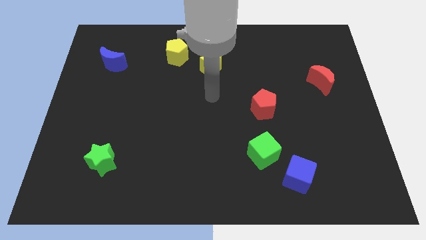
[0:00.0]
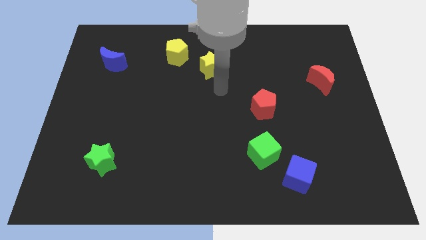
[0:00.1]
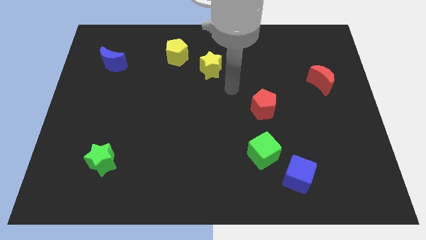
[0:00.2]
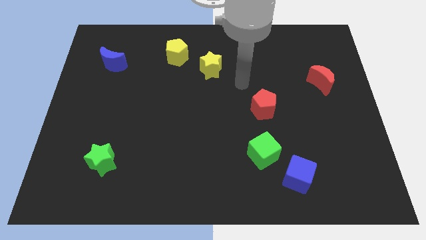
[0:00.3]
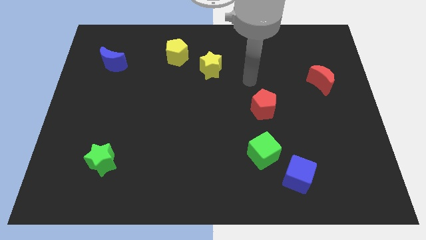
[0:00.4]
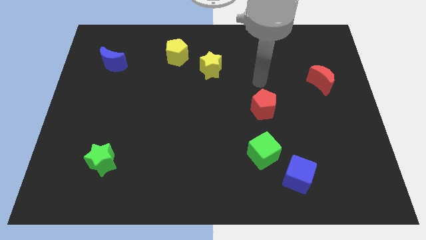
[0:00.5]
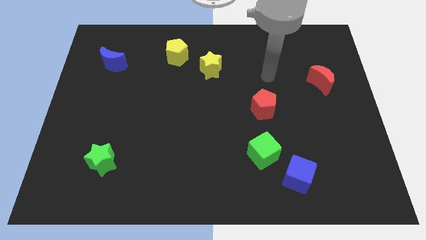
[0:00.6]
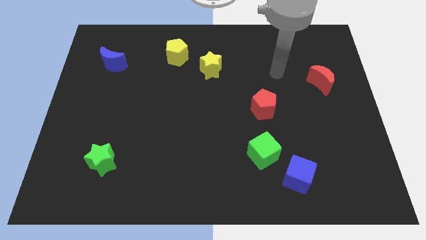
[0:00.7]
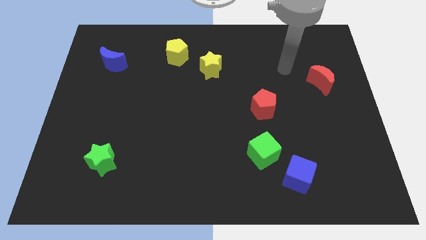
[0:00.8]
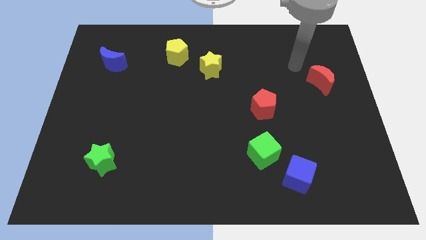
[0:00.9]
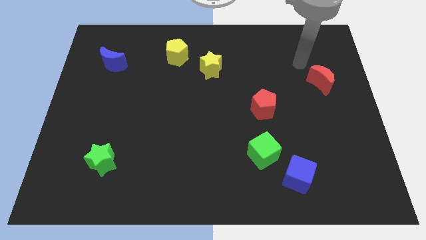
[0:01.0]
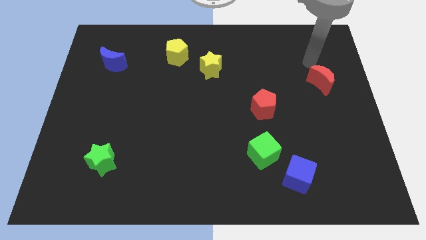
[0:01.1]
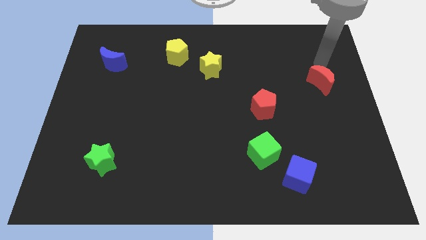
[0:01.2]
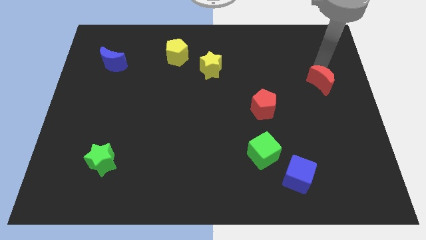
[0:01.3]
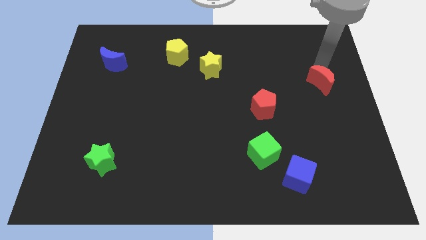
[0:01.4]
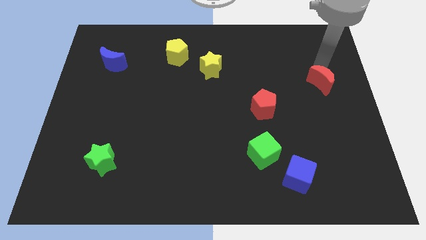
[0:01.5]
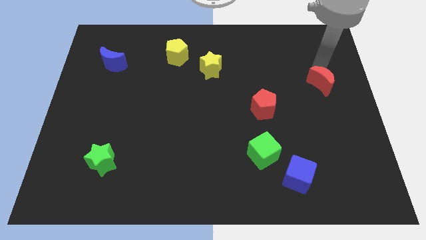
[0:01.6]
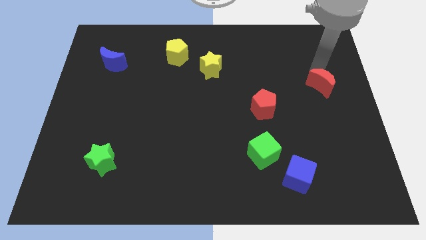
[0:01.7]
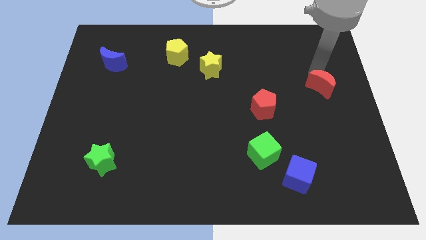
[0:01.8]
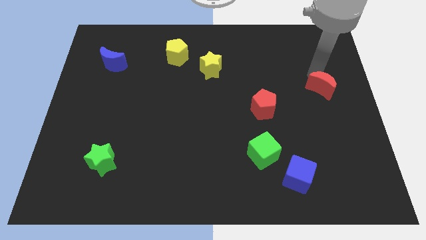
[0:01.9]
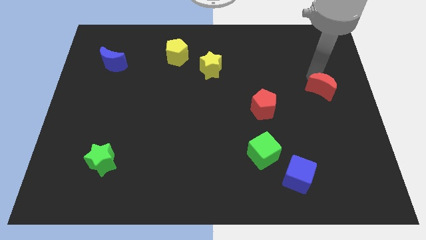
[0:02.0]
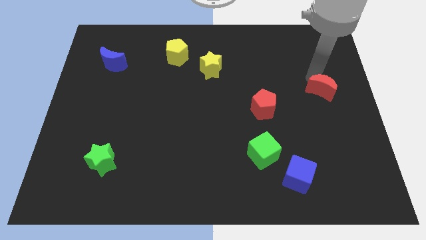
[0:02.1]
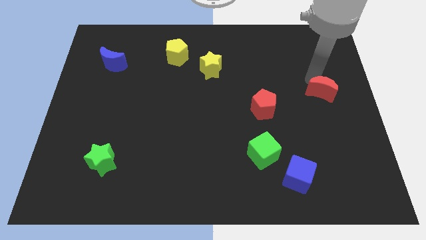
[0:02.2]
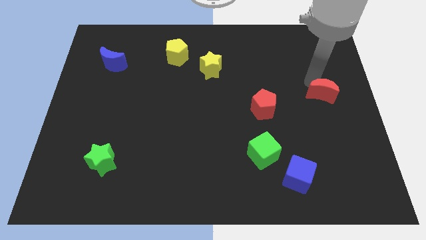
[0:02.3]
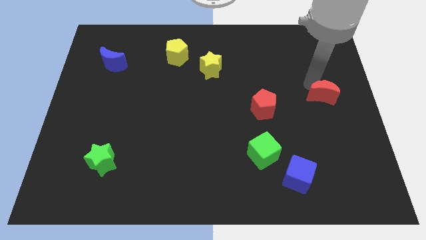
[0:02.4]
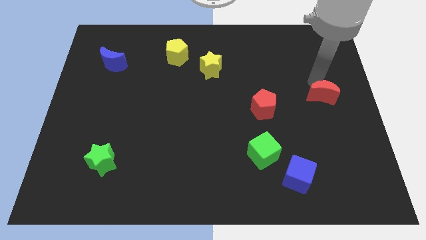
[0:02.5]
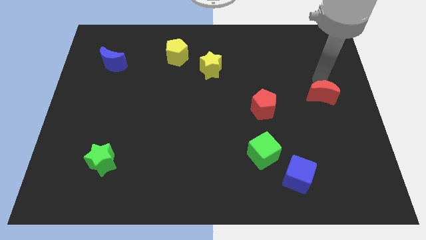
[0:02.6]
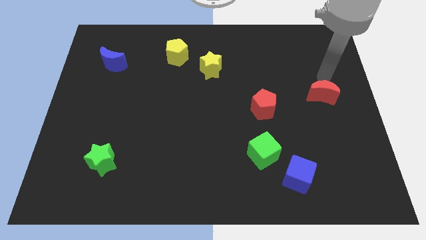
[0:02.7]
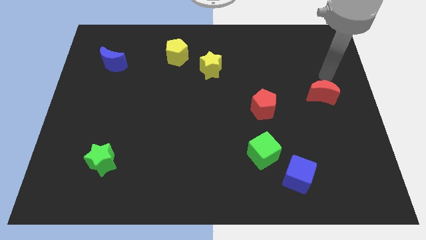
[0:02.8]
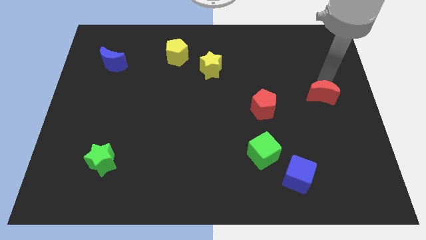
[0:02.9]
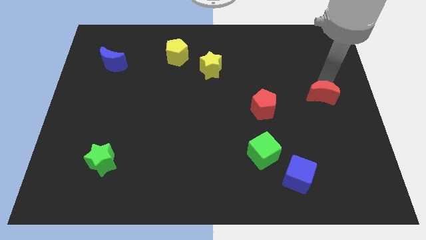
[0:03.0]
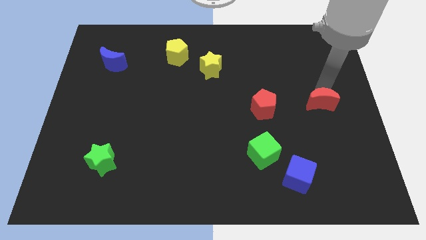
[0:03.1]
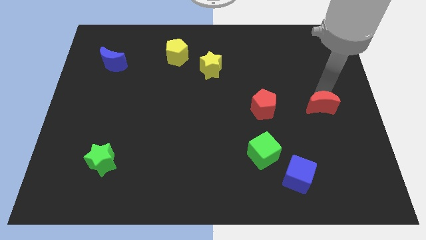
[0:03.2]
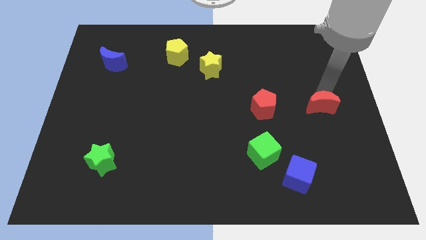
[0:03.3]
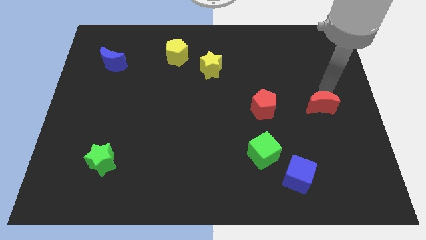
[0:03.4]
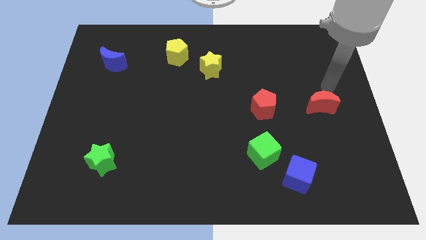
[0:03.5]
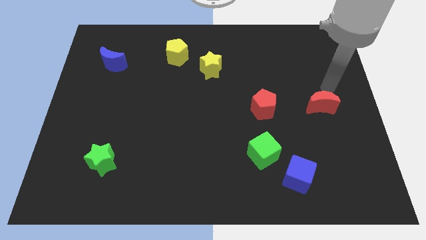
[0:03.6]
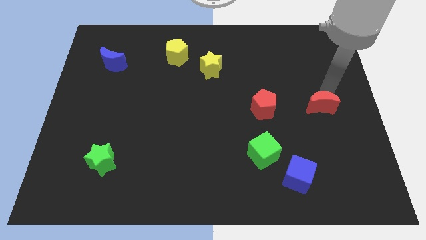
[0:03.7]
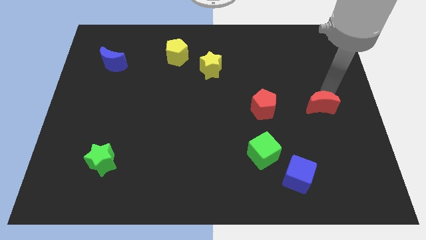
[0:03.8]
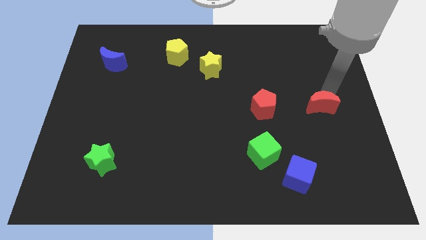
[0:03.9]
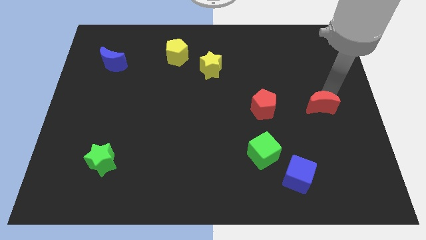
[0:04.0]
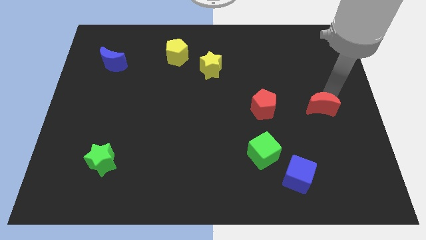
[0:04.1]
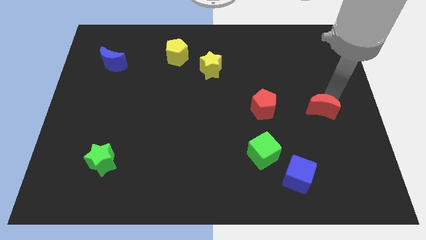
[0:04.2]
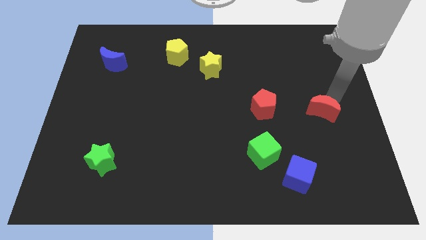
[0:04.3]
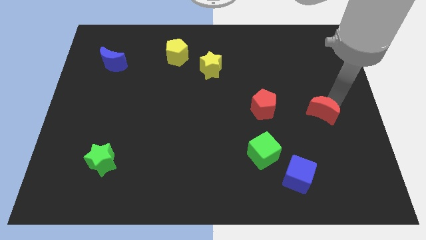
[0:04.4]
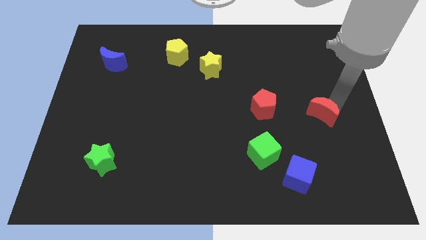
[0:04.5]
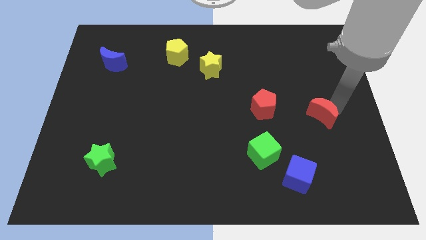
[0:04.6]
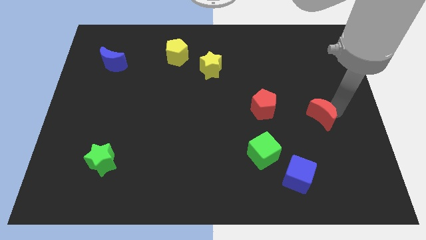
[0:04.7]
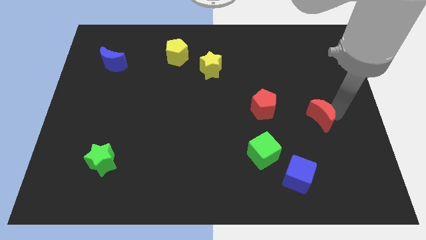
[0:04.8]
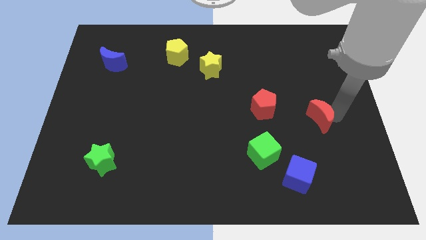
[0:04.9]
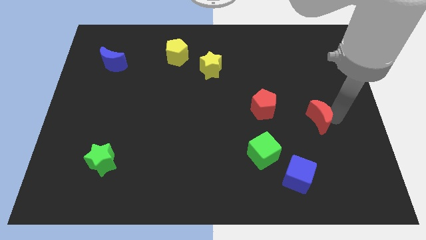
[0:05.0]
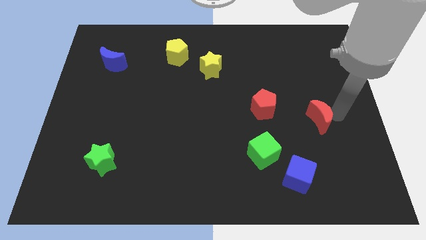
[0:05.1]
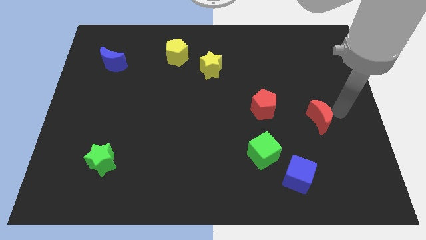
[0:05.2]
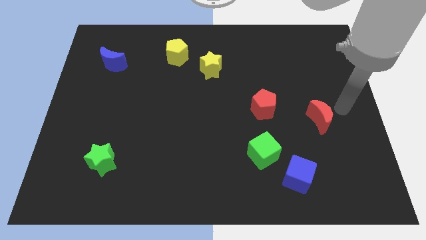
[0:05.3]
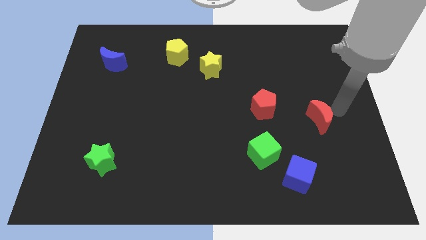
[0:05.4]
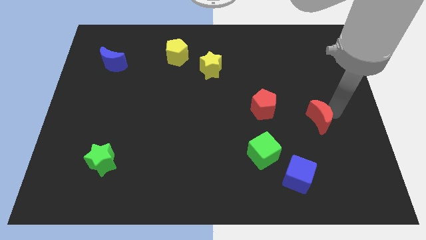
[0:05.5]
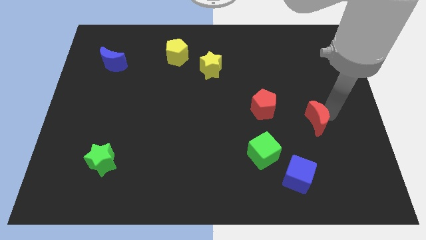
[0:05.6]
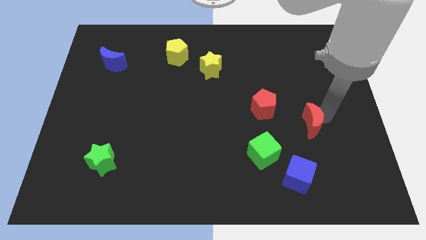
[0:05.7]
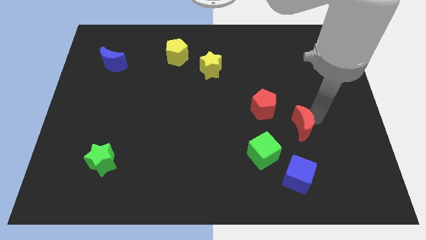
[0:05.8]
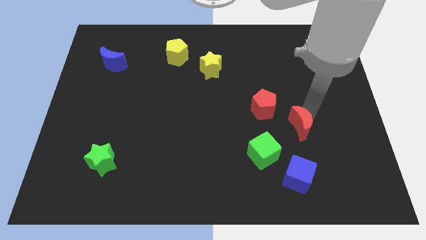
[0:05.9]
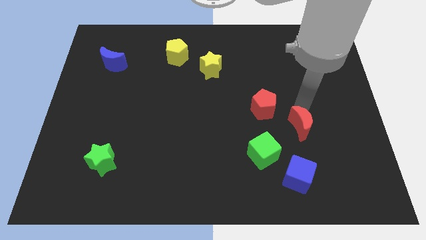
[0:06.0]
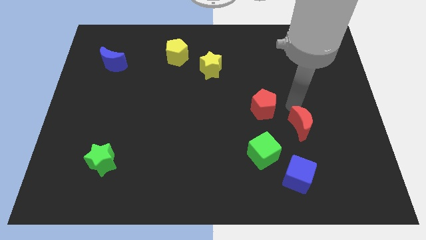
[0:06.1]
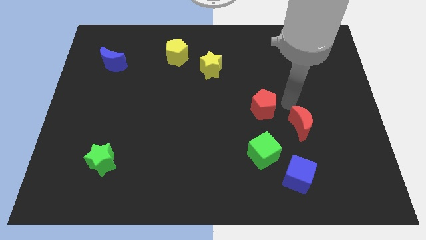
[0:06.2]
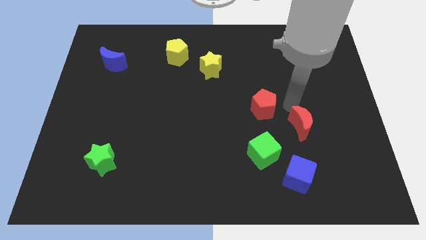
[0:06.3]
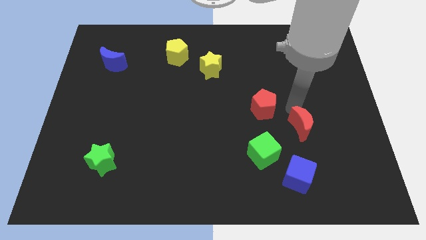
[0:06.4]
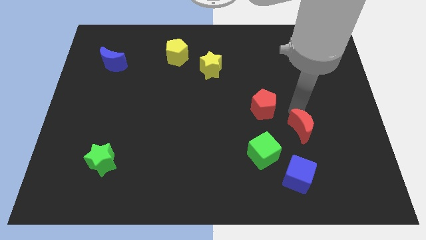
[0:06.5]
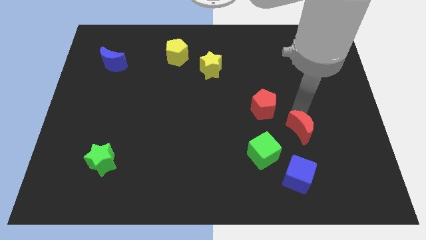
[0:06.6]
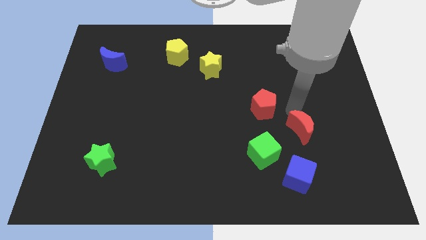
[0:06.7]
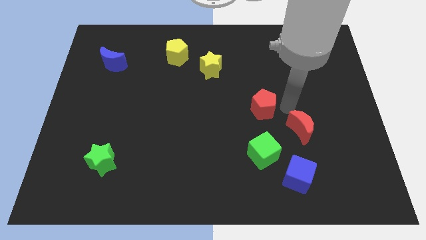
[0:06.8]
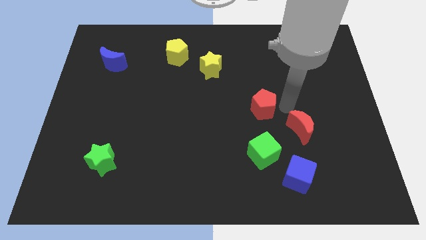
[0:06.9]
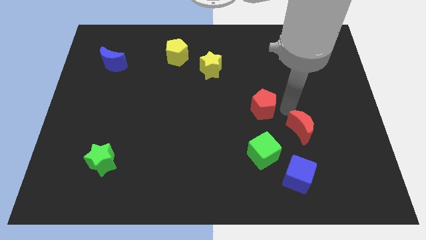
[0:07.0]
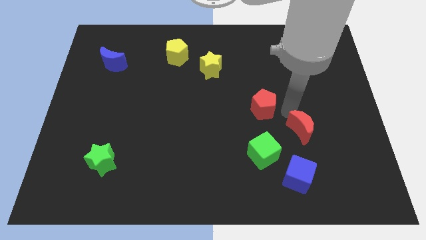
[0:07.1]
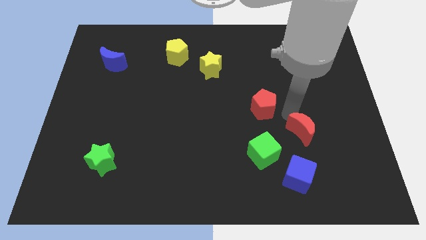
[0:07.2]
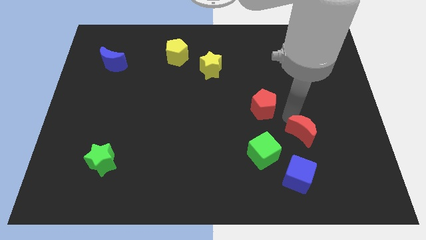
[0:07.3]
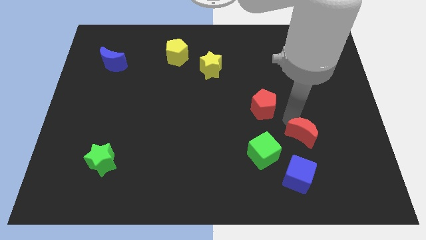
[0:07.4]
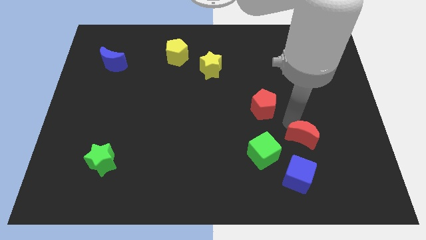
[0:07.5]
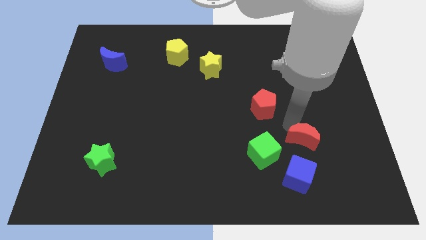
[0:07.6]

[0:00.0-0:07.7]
move the red moon to the top right of the blue cube
